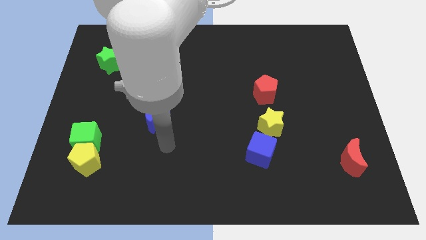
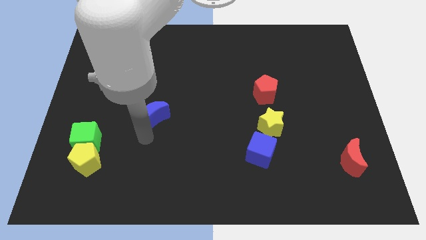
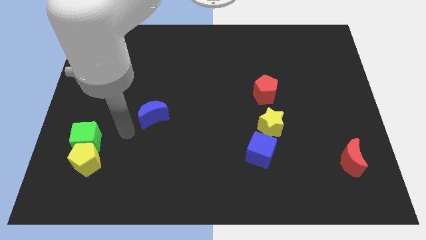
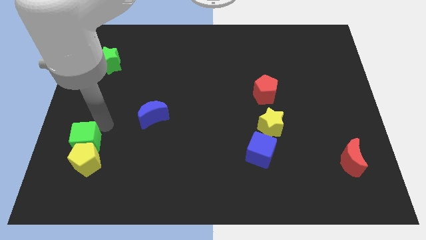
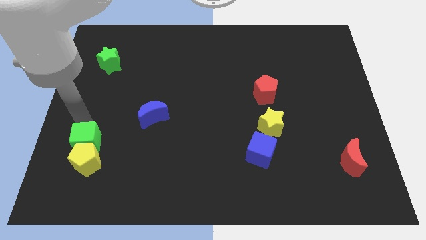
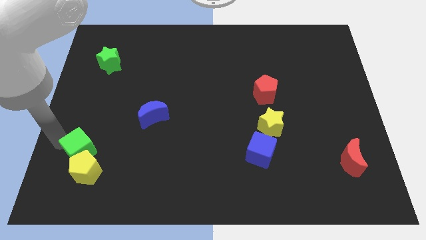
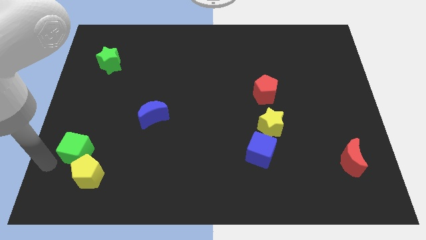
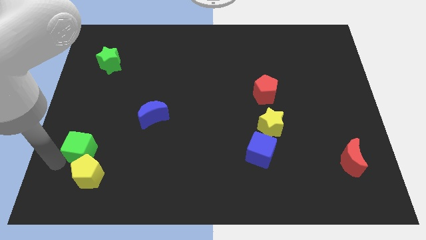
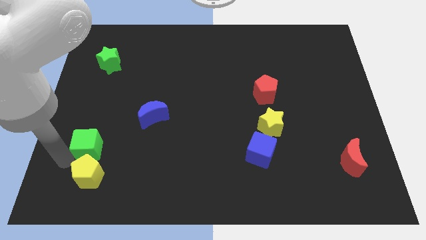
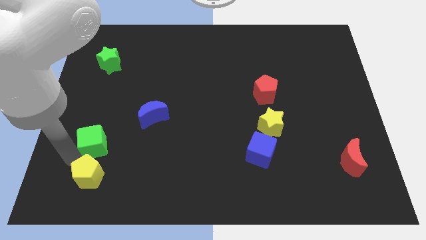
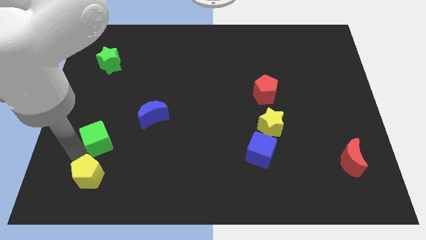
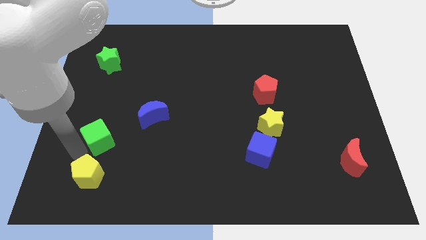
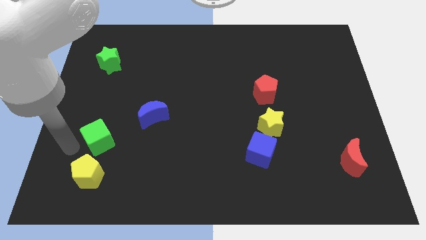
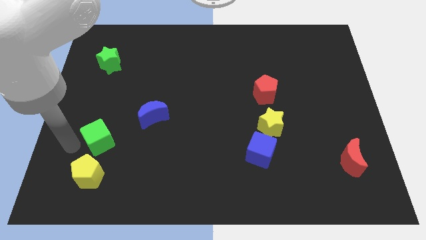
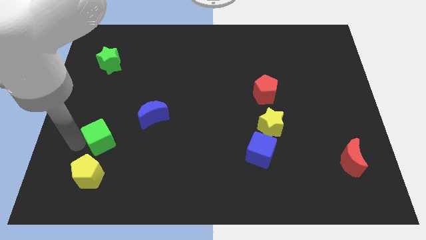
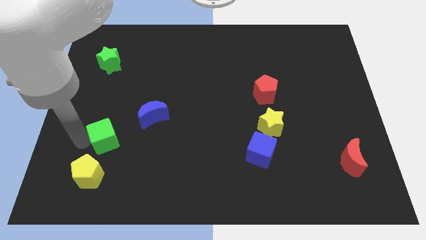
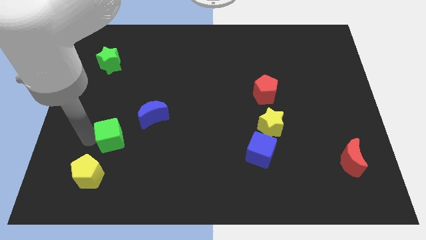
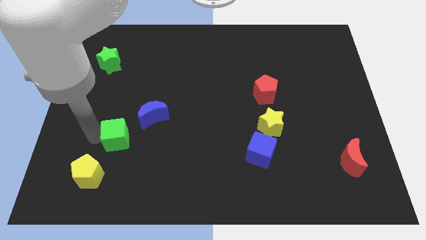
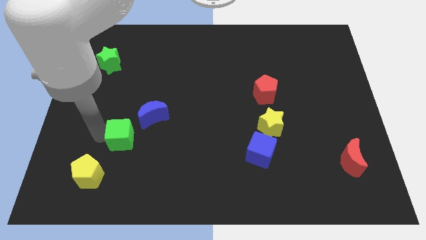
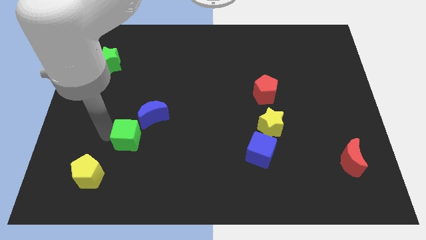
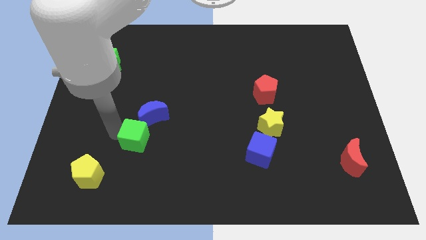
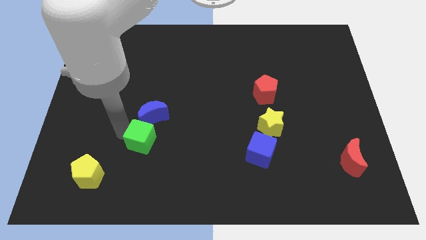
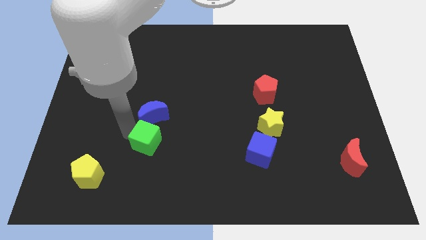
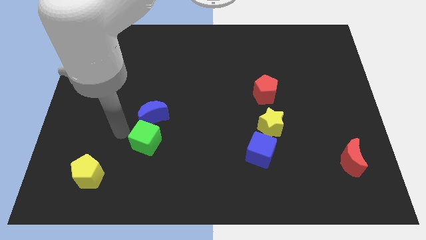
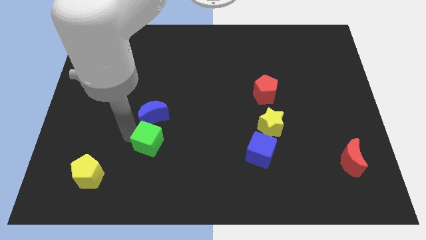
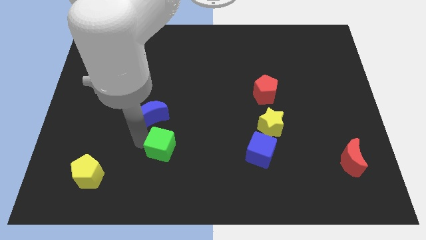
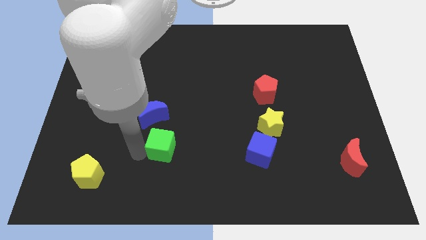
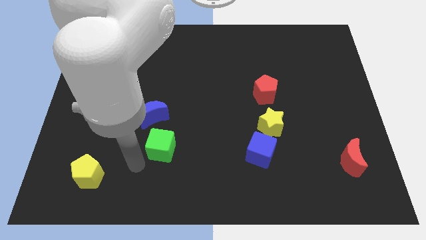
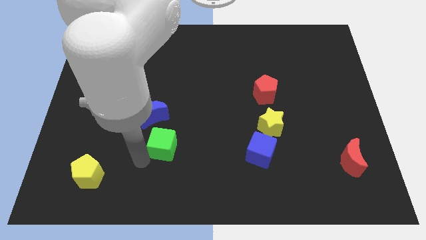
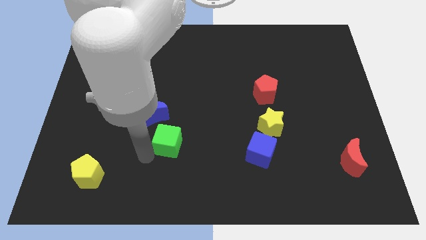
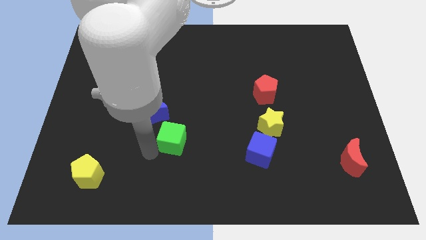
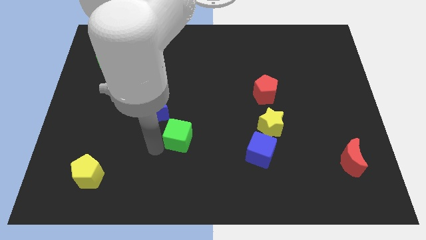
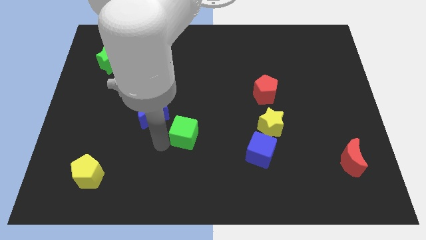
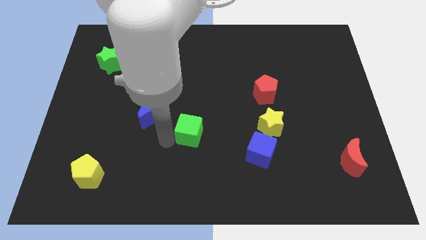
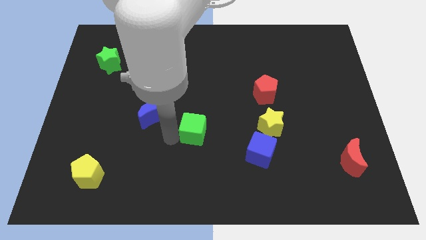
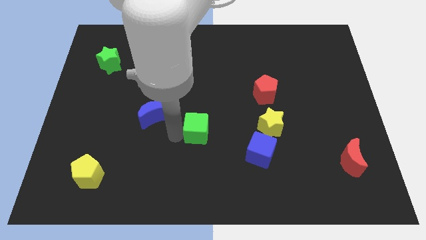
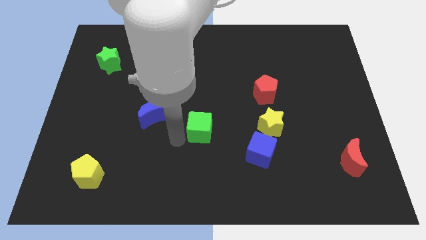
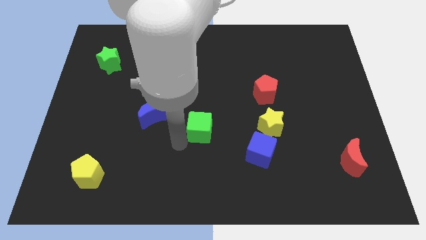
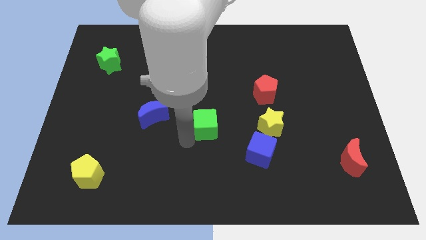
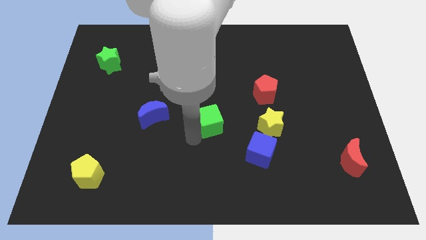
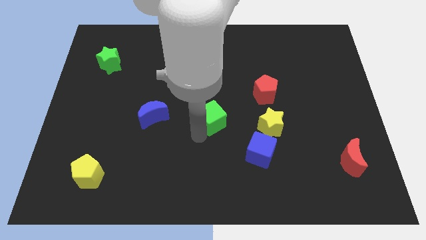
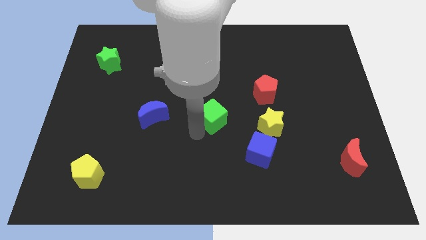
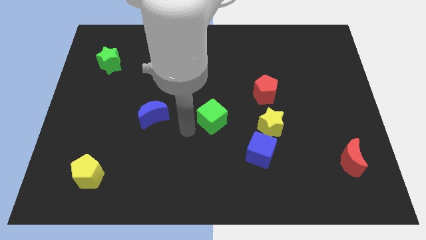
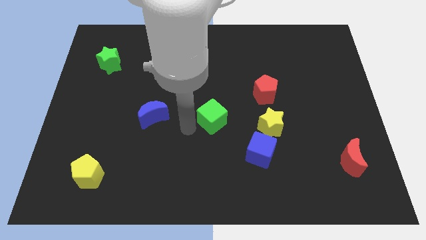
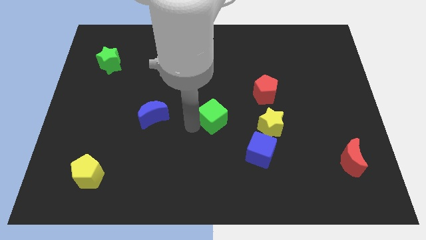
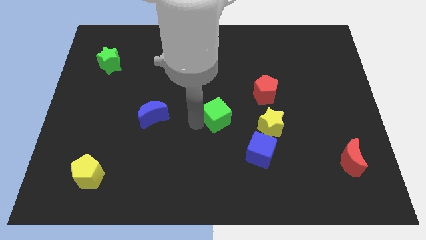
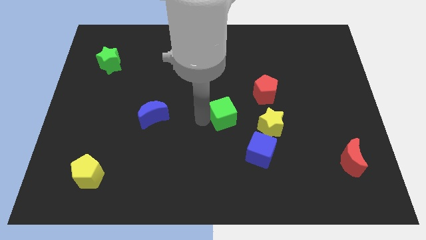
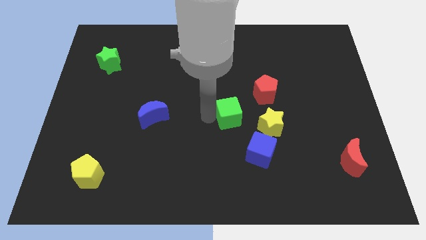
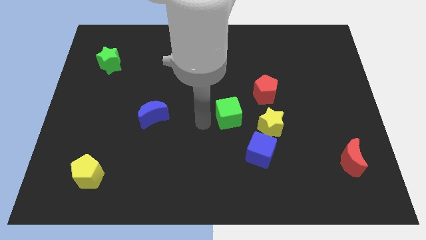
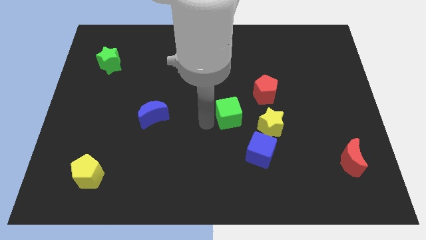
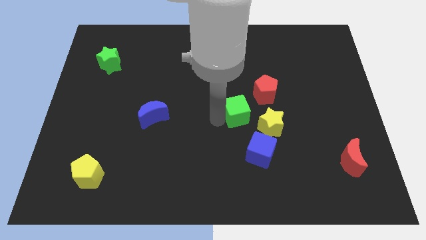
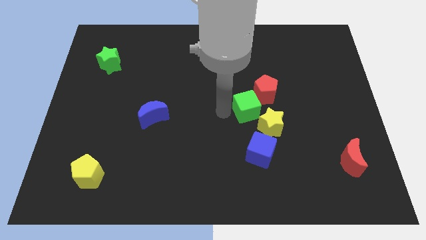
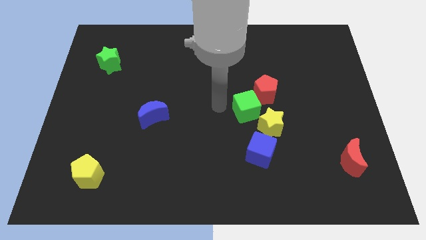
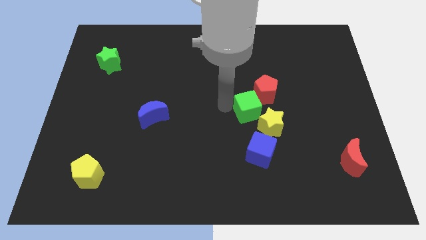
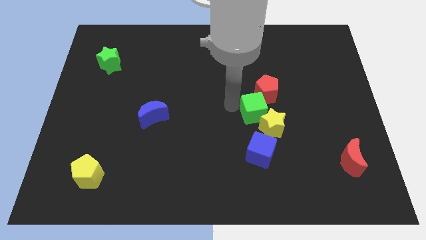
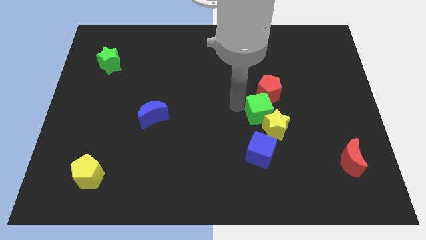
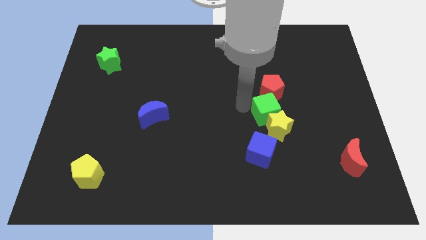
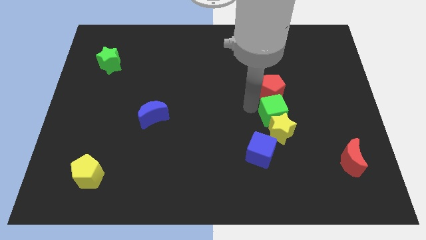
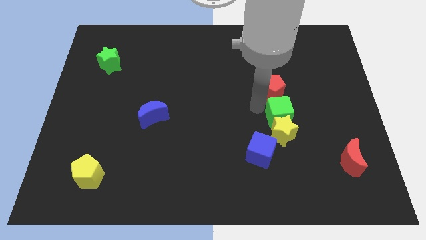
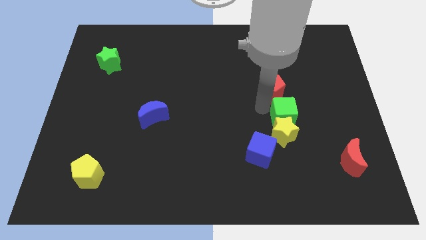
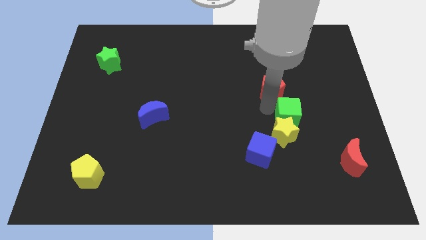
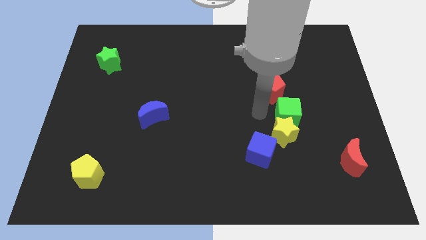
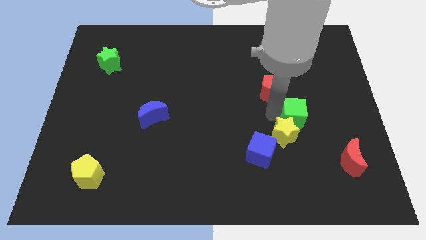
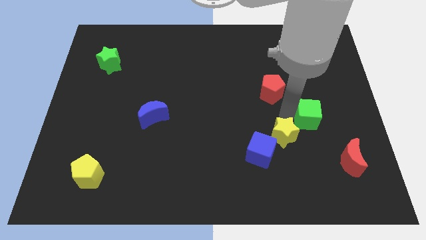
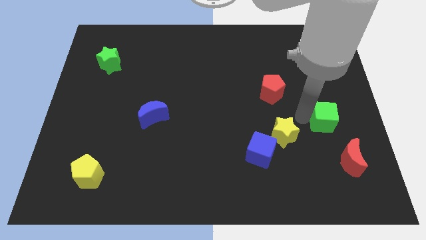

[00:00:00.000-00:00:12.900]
put the green cube to the top side of the red moon

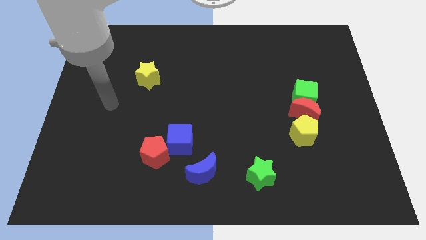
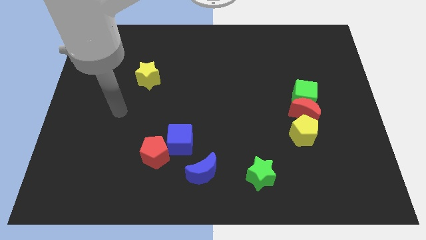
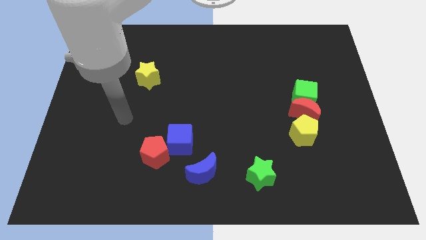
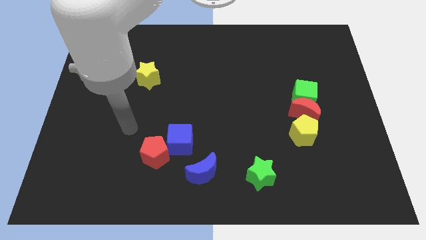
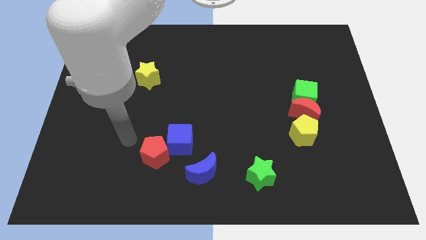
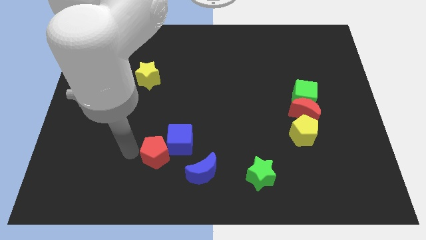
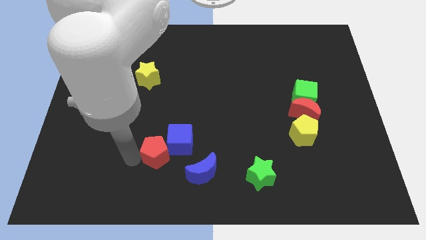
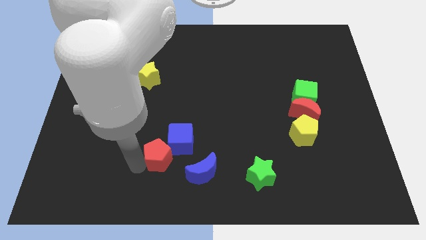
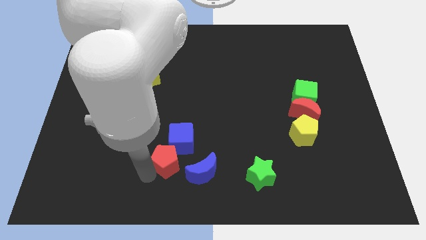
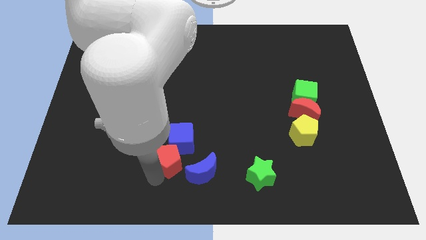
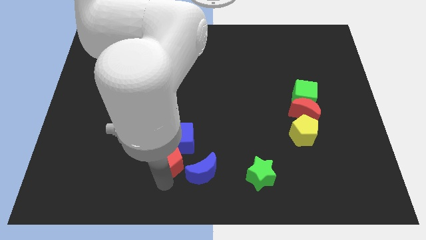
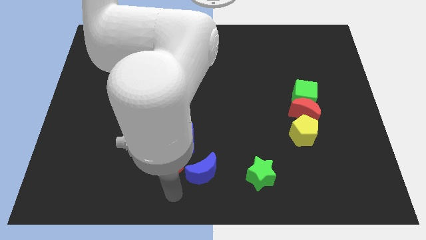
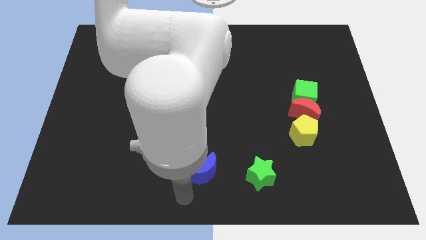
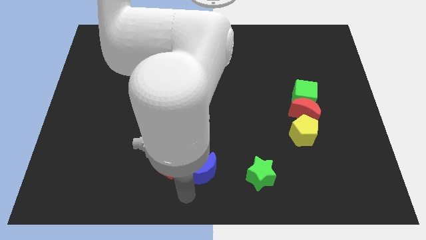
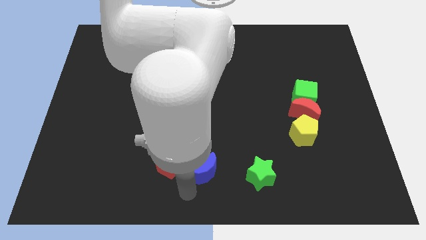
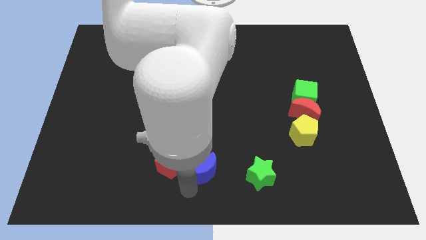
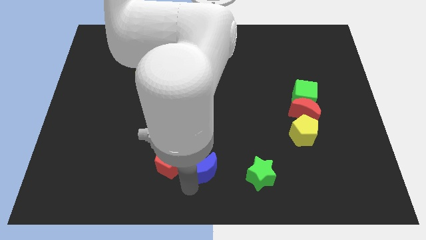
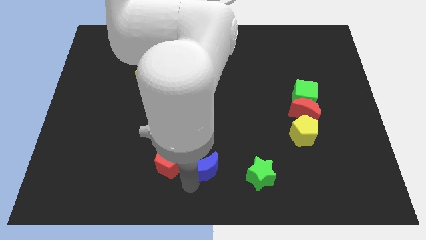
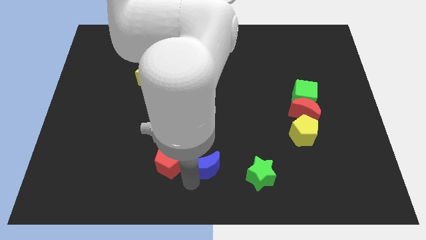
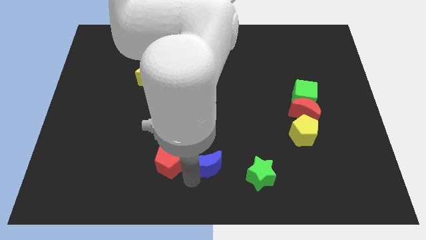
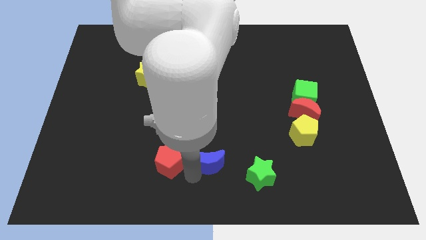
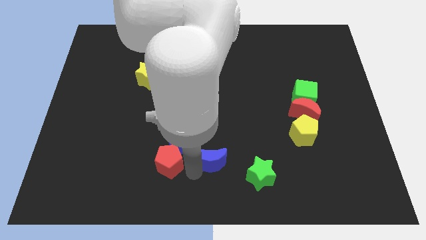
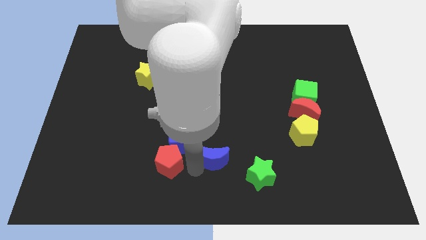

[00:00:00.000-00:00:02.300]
move the blue moon to the right of the blue cube
